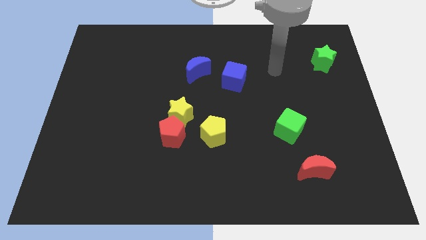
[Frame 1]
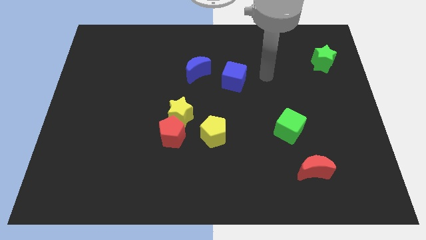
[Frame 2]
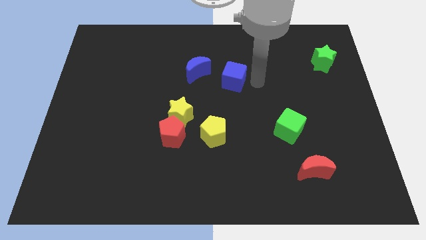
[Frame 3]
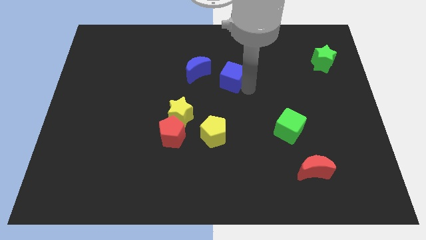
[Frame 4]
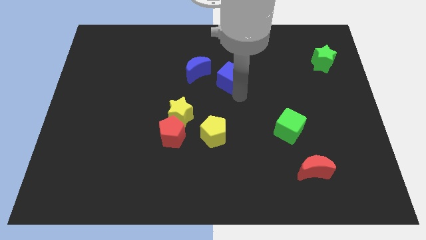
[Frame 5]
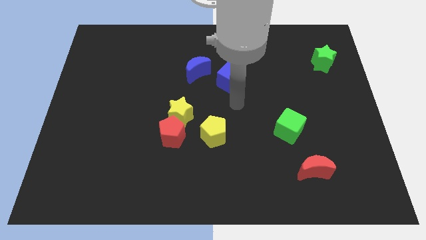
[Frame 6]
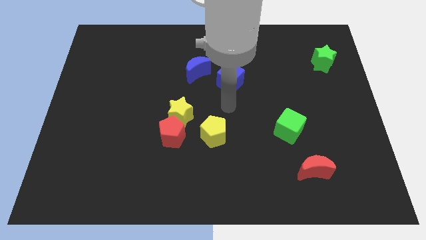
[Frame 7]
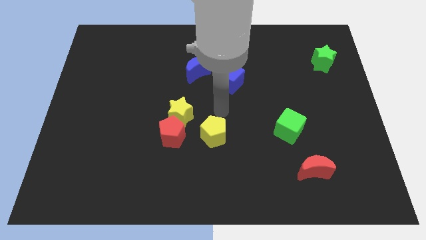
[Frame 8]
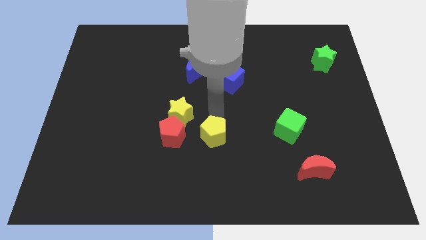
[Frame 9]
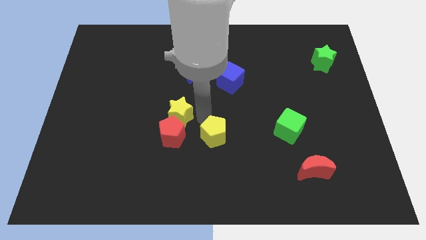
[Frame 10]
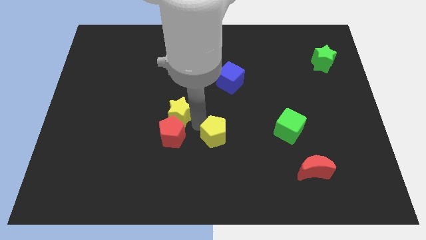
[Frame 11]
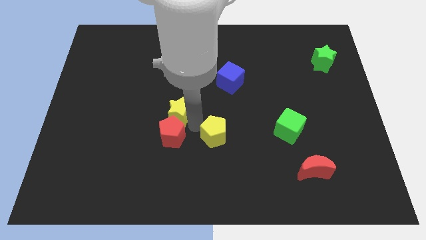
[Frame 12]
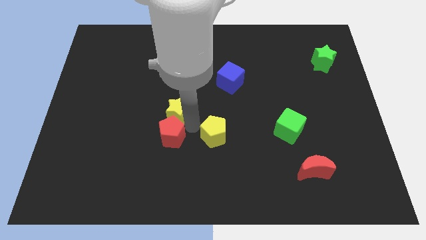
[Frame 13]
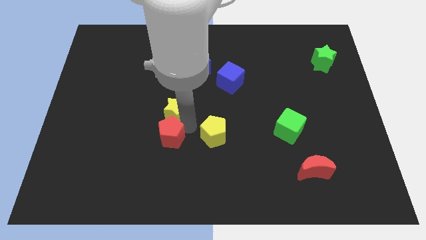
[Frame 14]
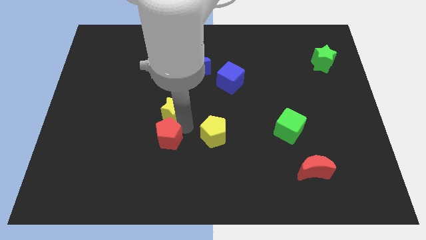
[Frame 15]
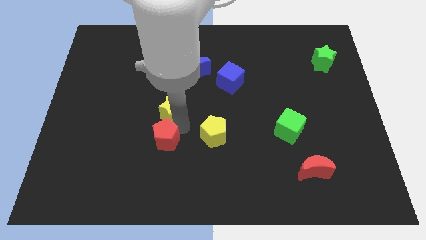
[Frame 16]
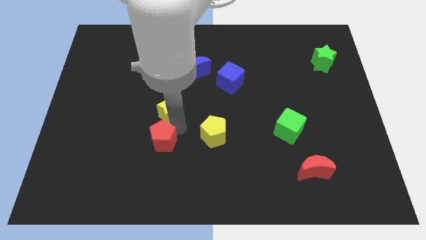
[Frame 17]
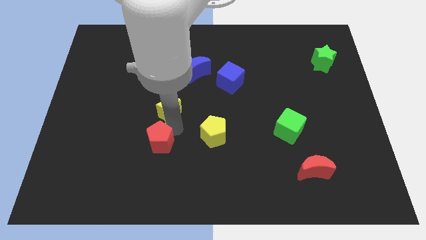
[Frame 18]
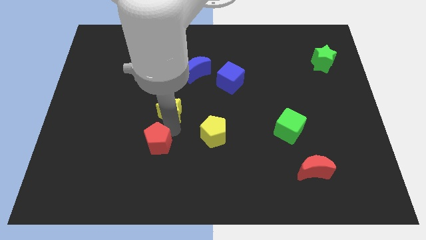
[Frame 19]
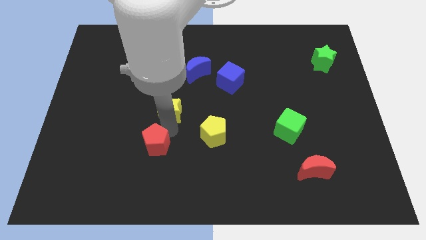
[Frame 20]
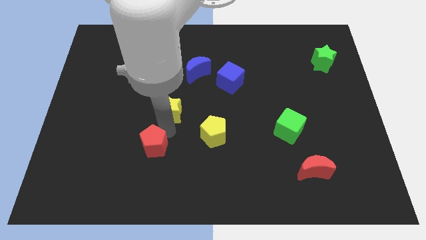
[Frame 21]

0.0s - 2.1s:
move the red pentagon away from the yellow star and yellow pentagon

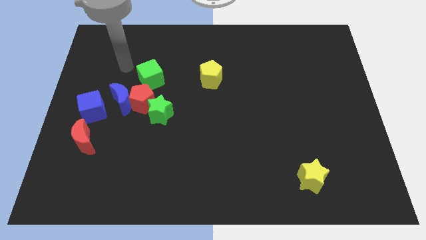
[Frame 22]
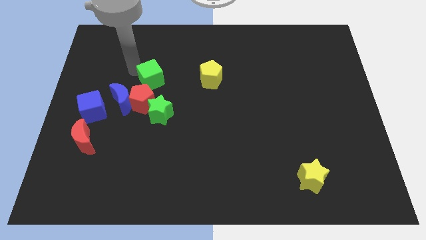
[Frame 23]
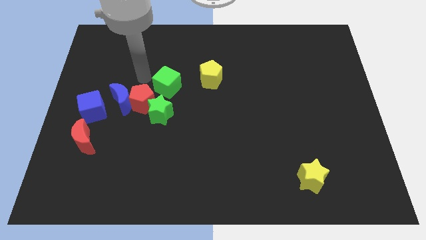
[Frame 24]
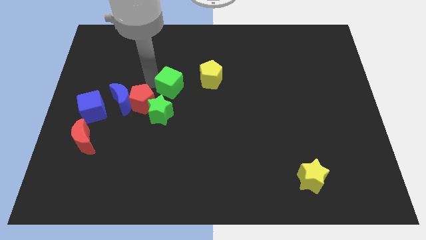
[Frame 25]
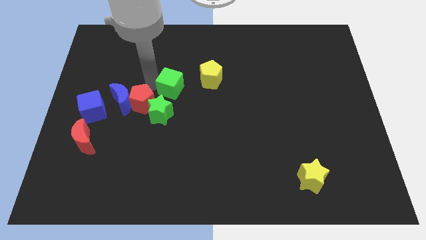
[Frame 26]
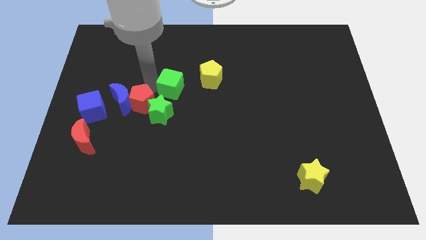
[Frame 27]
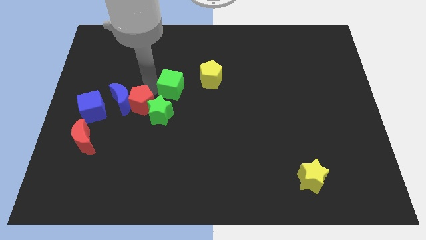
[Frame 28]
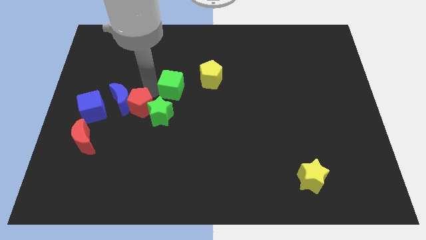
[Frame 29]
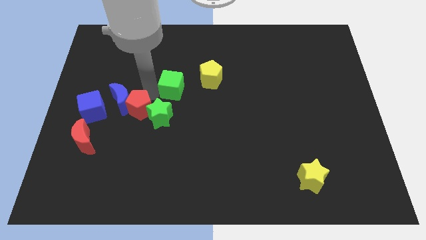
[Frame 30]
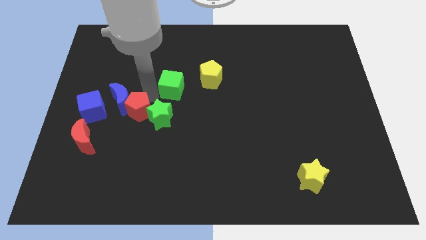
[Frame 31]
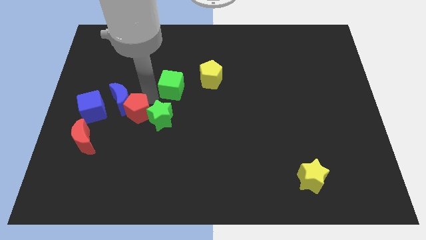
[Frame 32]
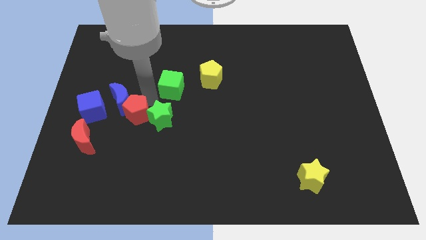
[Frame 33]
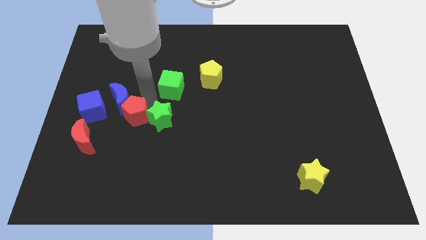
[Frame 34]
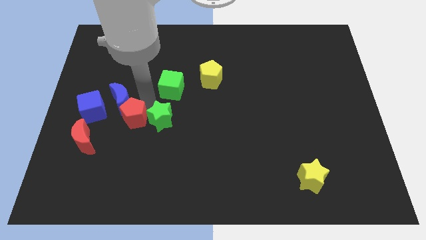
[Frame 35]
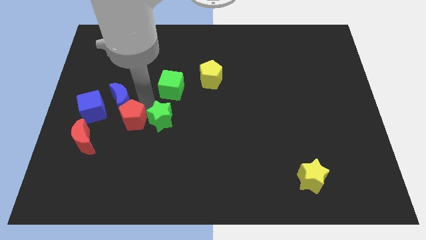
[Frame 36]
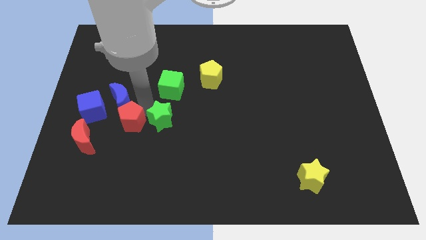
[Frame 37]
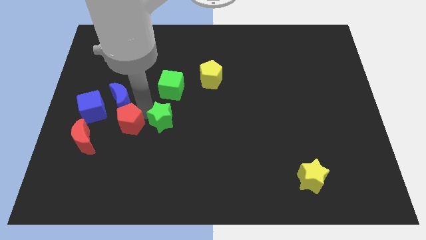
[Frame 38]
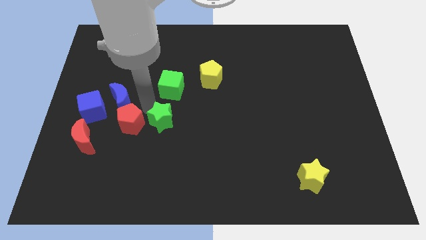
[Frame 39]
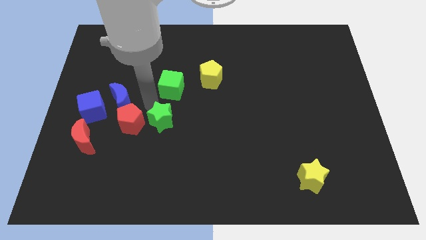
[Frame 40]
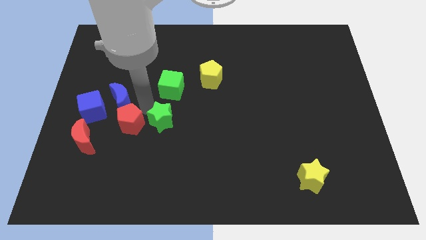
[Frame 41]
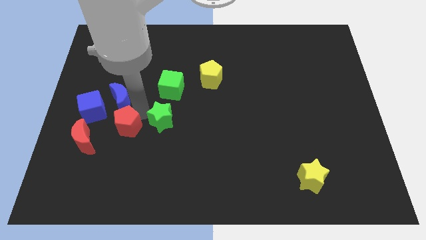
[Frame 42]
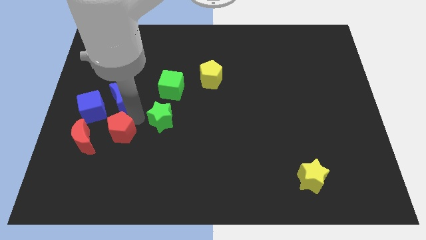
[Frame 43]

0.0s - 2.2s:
pull the red pentagon apart from the group

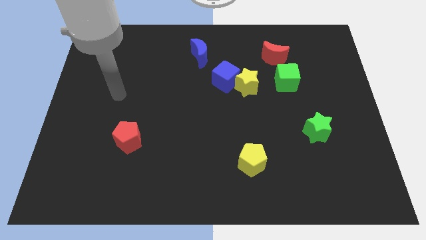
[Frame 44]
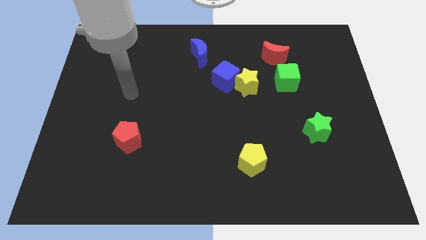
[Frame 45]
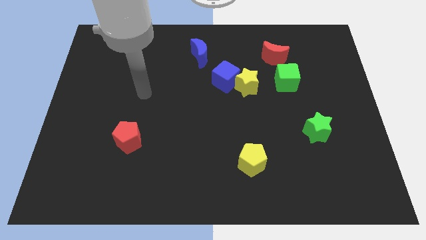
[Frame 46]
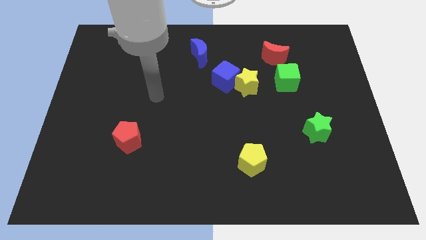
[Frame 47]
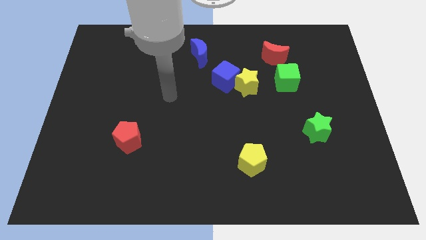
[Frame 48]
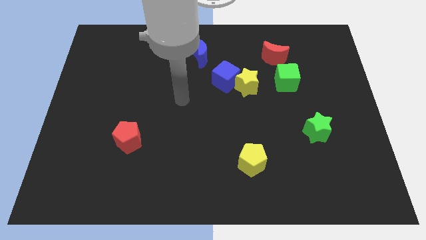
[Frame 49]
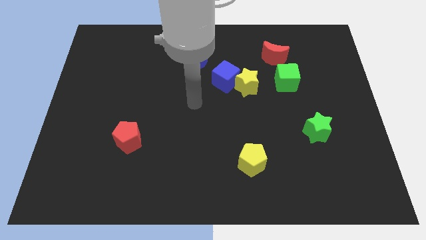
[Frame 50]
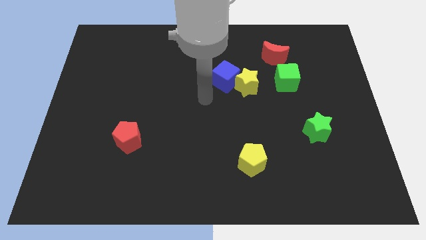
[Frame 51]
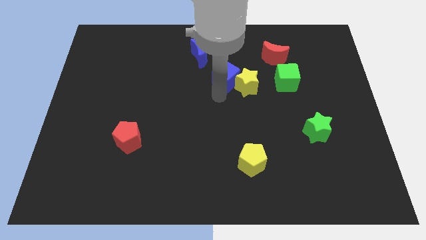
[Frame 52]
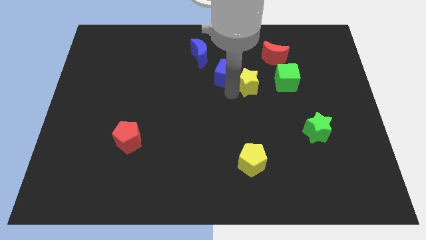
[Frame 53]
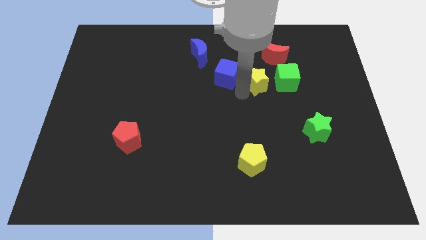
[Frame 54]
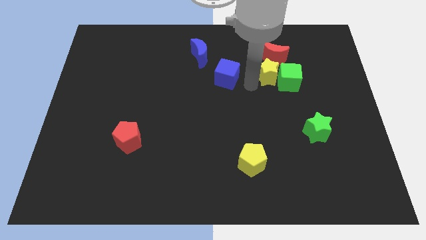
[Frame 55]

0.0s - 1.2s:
move the blue cube away from the yellow star

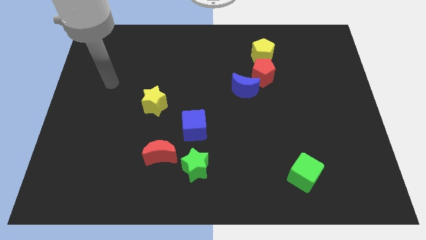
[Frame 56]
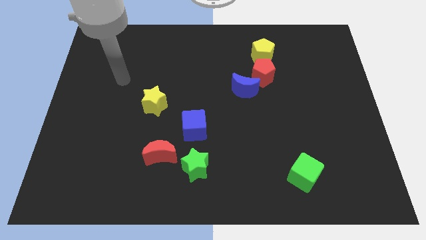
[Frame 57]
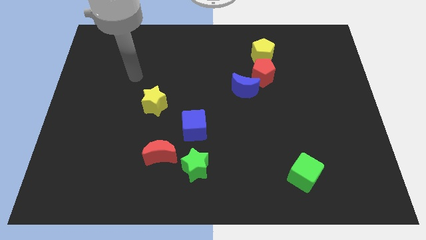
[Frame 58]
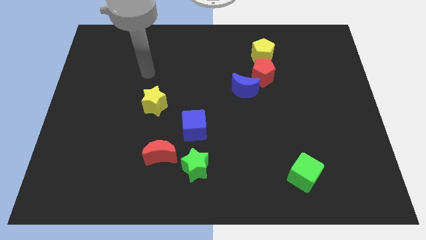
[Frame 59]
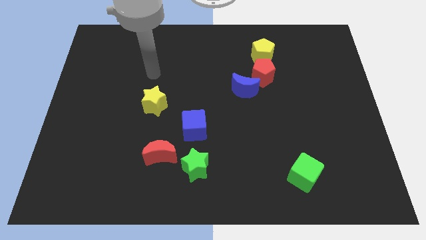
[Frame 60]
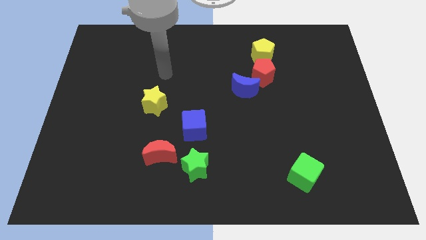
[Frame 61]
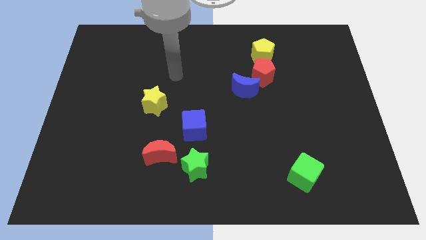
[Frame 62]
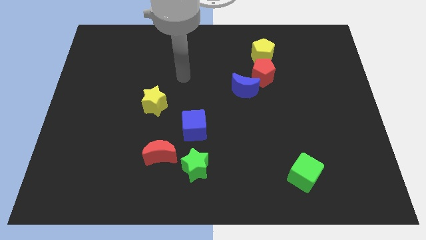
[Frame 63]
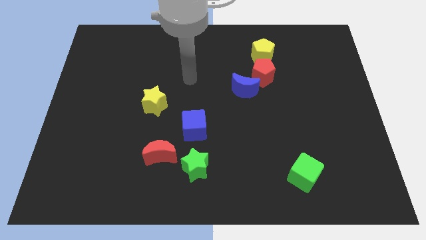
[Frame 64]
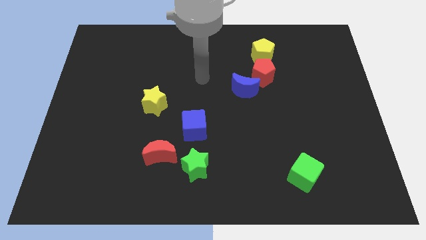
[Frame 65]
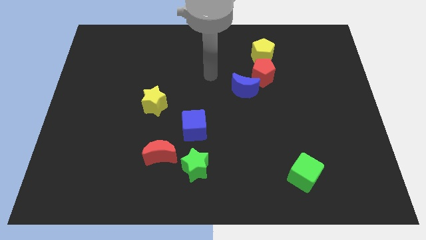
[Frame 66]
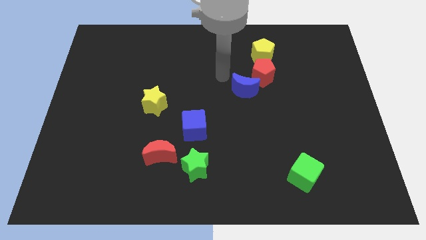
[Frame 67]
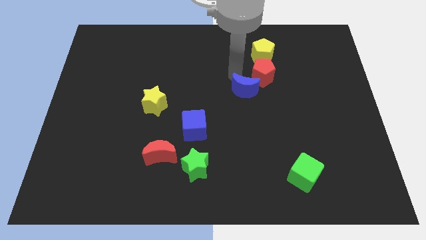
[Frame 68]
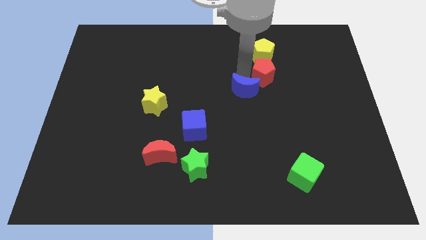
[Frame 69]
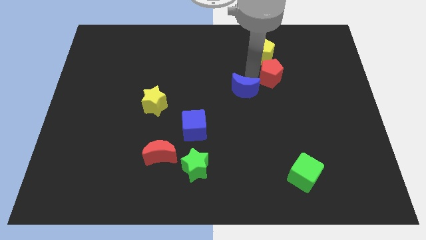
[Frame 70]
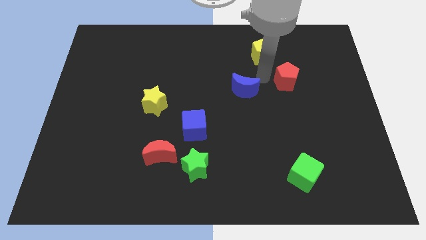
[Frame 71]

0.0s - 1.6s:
separate the blue moon from the red pentagon

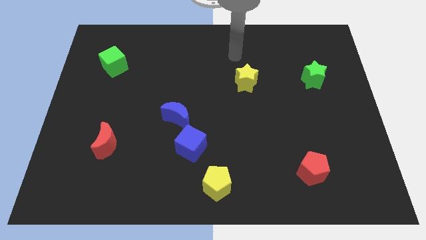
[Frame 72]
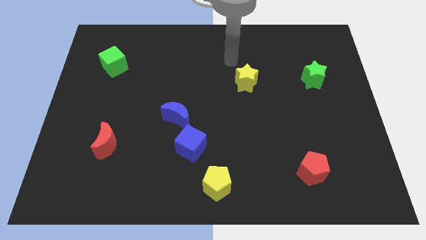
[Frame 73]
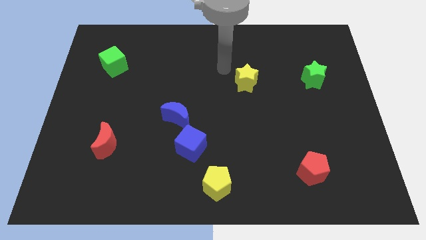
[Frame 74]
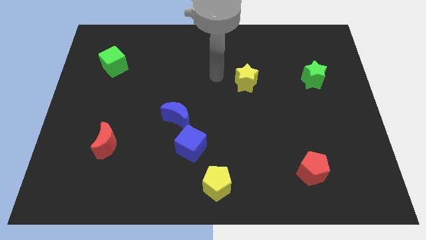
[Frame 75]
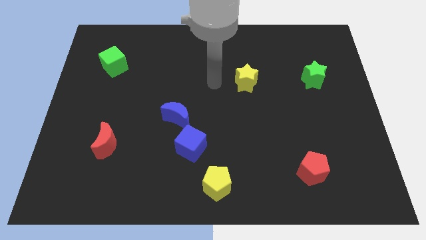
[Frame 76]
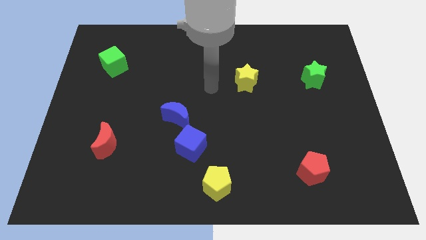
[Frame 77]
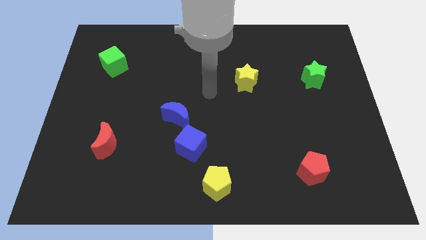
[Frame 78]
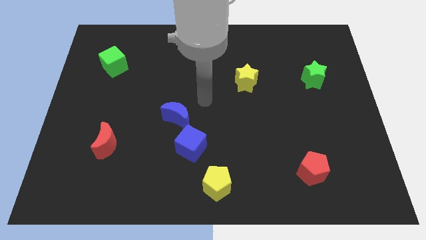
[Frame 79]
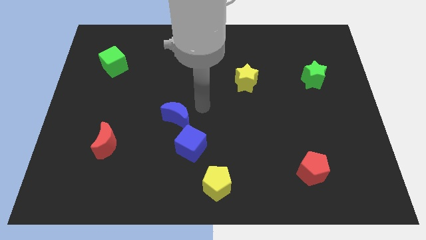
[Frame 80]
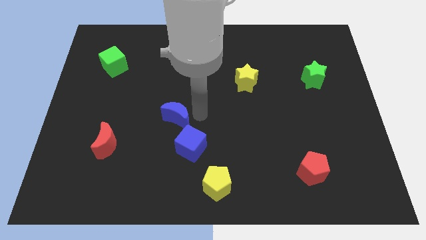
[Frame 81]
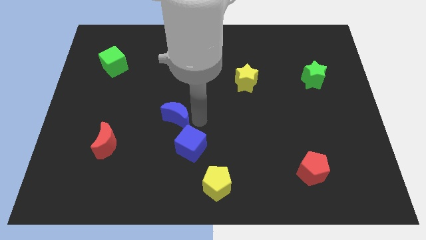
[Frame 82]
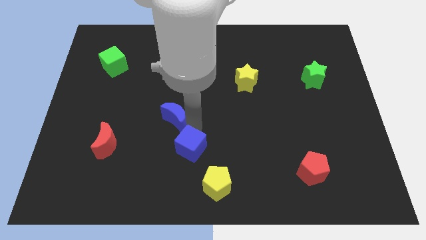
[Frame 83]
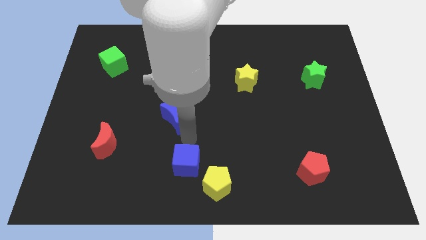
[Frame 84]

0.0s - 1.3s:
pull the blue moon apart from the blue cube

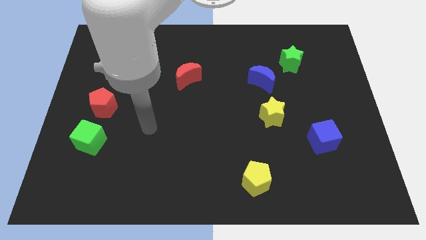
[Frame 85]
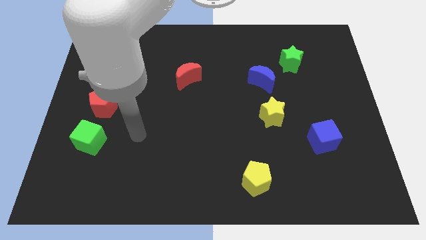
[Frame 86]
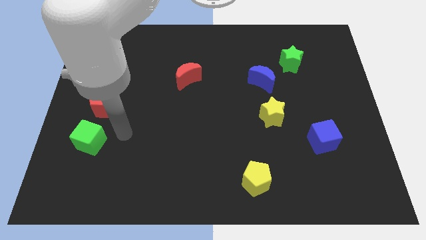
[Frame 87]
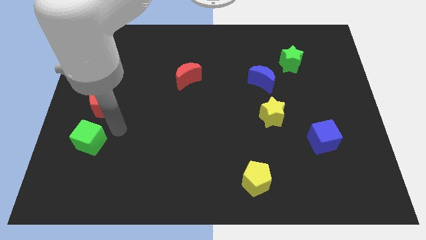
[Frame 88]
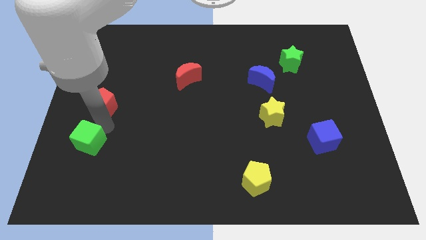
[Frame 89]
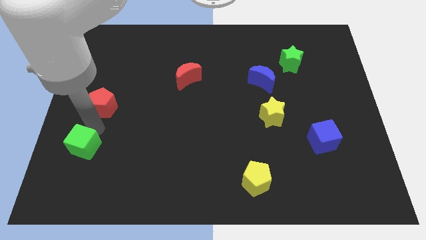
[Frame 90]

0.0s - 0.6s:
move the red pentagon away from the green cube

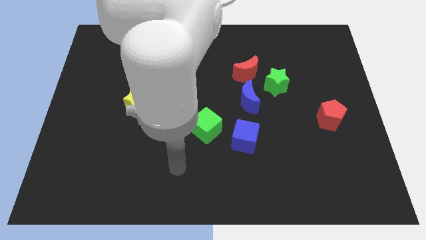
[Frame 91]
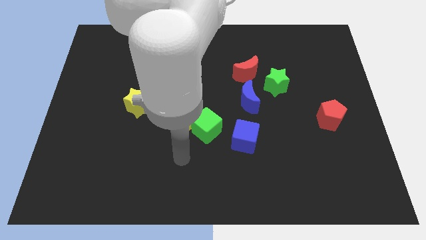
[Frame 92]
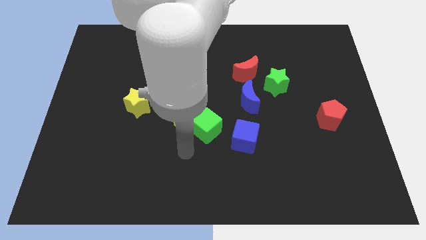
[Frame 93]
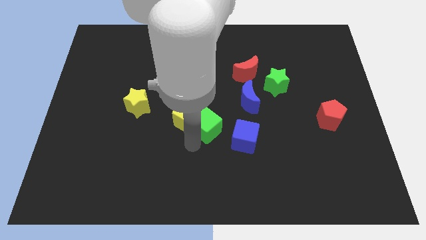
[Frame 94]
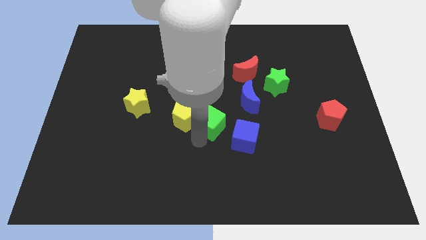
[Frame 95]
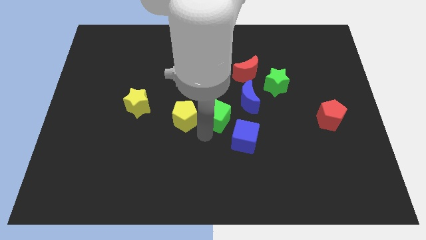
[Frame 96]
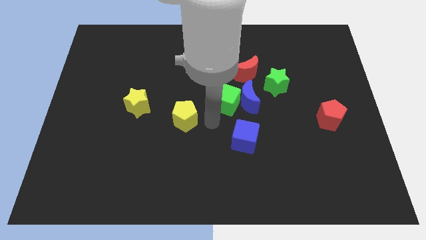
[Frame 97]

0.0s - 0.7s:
separate the yellow pentagon from the green cube
